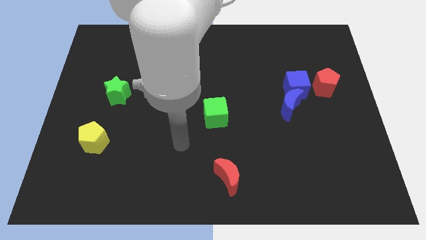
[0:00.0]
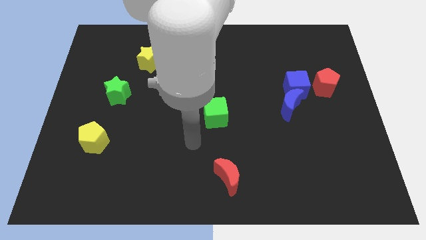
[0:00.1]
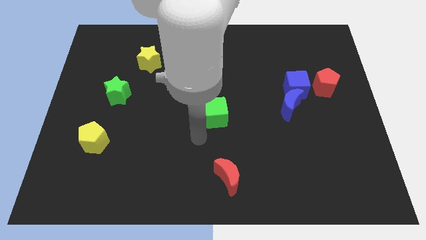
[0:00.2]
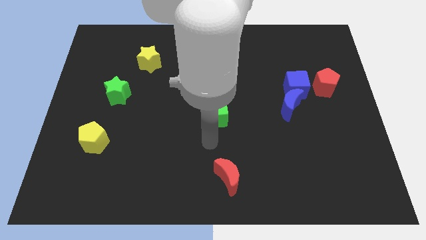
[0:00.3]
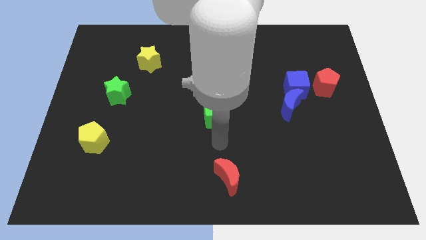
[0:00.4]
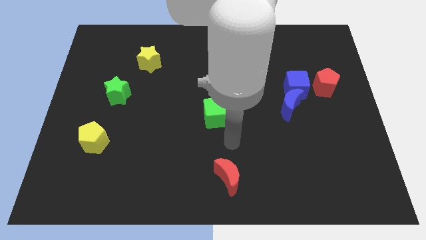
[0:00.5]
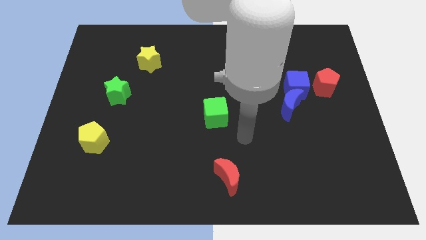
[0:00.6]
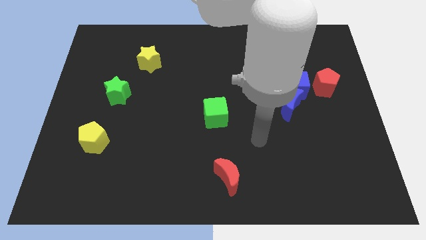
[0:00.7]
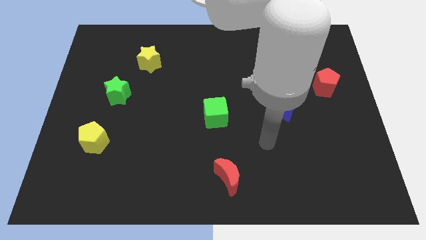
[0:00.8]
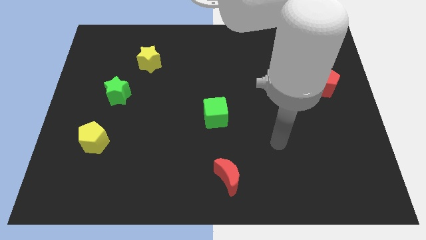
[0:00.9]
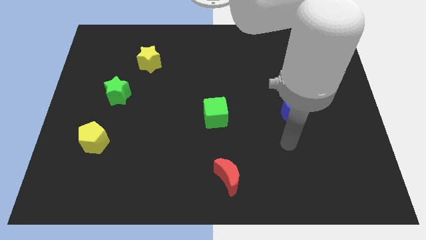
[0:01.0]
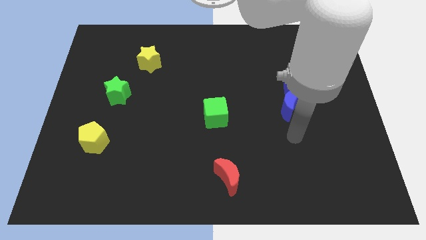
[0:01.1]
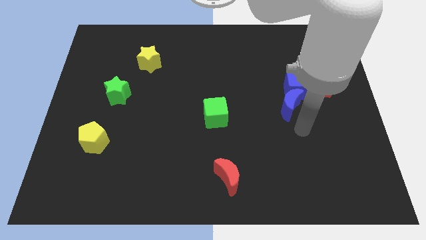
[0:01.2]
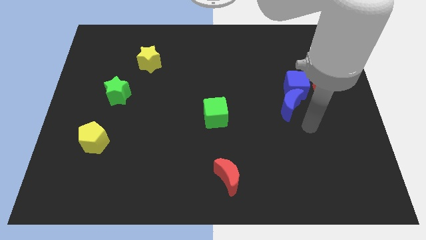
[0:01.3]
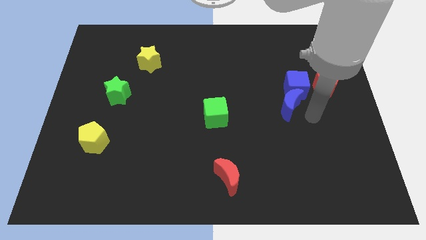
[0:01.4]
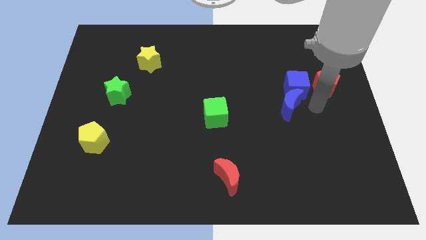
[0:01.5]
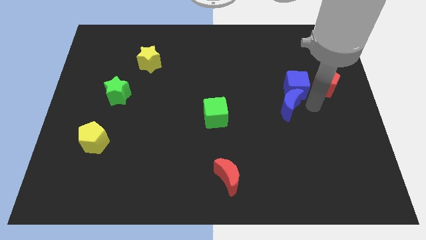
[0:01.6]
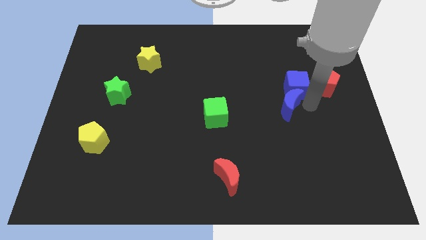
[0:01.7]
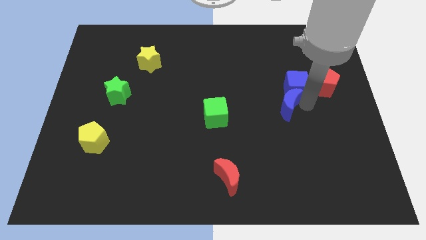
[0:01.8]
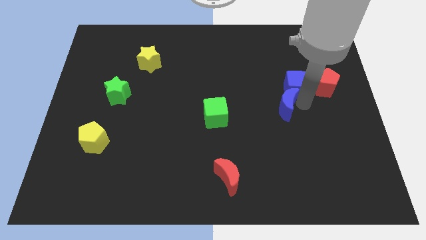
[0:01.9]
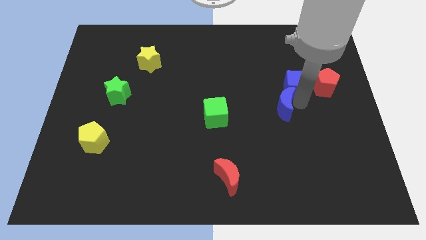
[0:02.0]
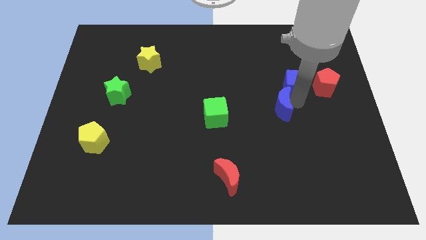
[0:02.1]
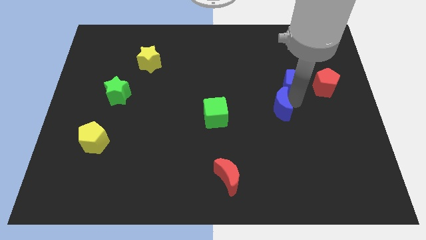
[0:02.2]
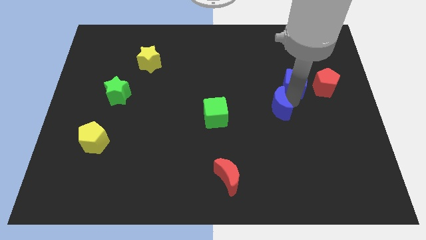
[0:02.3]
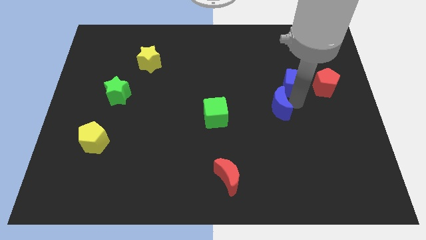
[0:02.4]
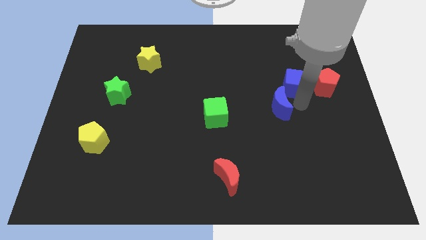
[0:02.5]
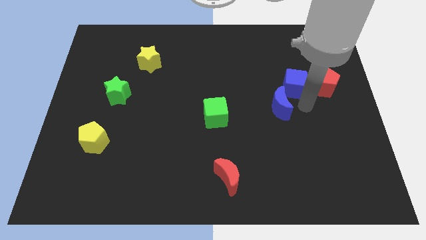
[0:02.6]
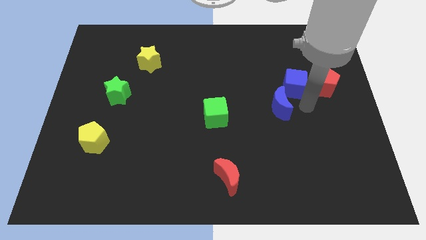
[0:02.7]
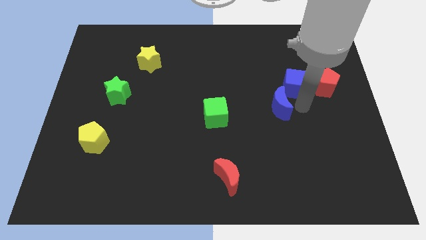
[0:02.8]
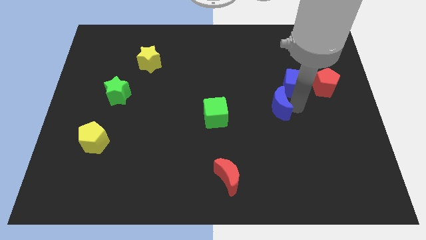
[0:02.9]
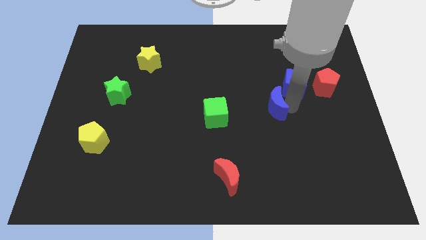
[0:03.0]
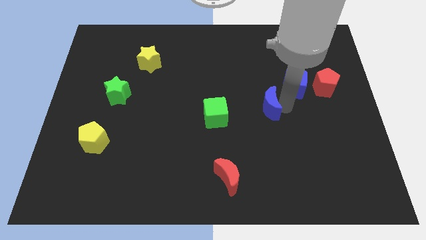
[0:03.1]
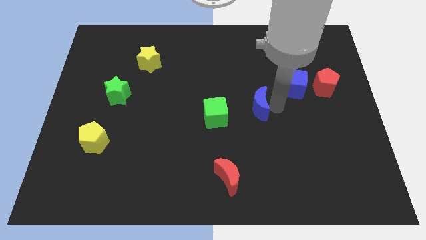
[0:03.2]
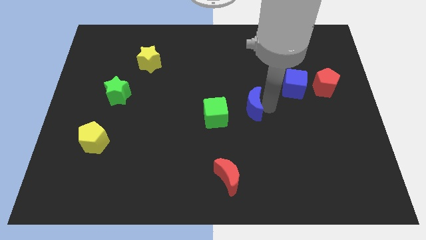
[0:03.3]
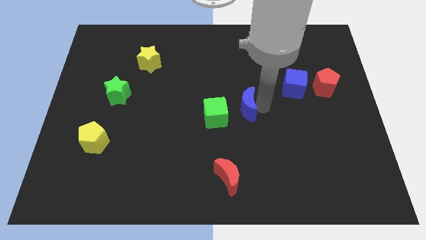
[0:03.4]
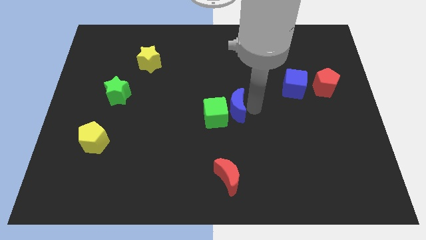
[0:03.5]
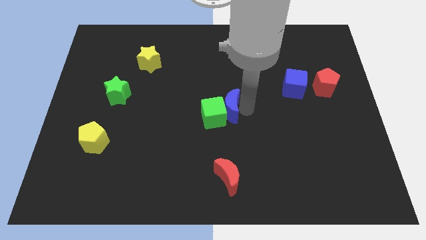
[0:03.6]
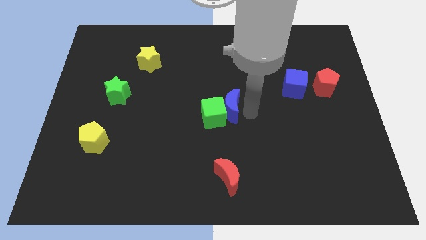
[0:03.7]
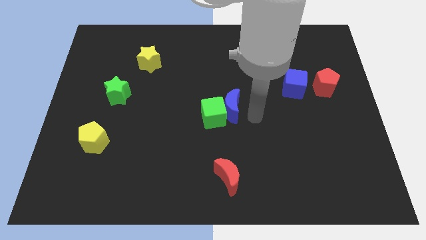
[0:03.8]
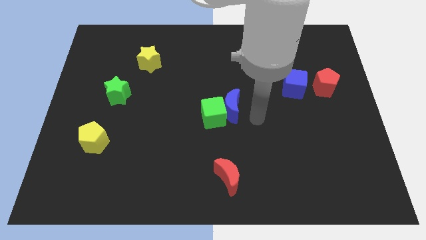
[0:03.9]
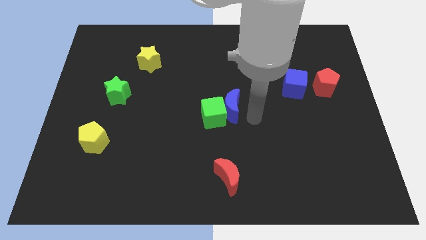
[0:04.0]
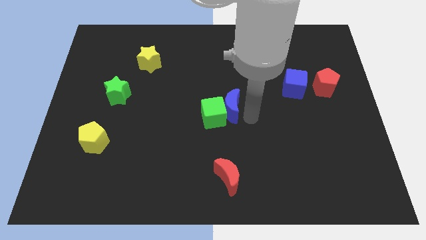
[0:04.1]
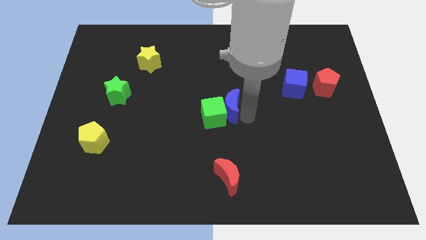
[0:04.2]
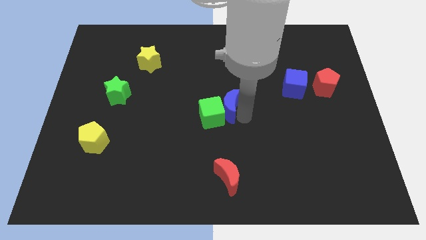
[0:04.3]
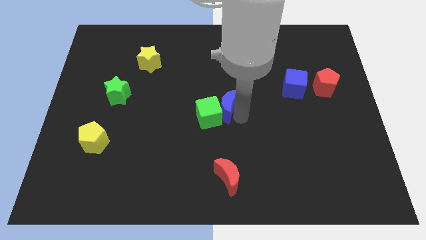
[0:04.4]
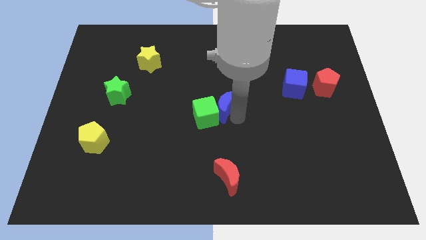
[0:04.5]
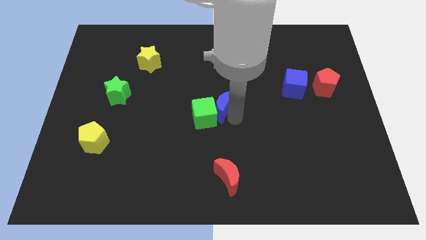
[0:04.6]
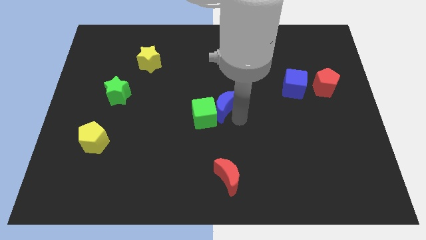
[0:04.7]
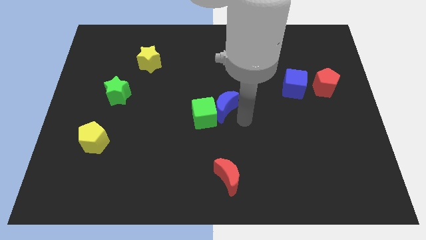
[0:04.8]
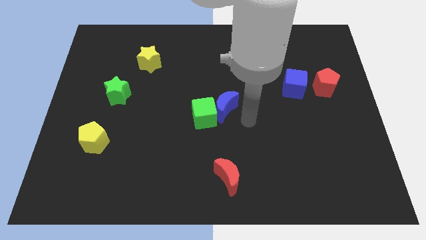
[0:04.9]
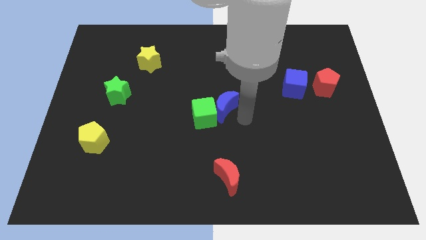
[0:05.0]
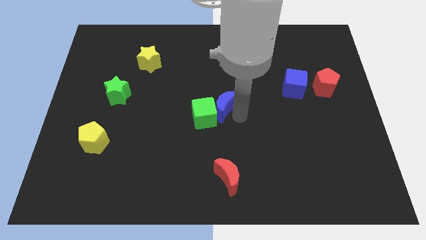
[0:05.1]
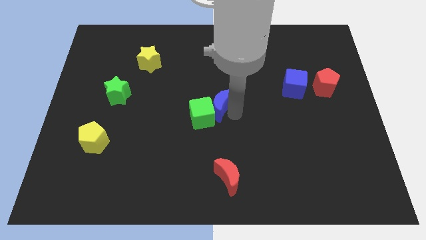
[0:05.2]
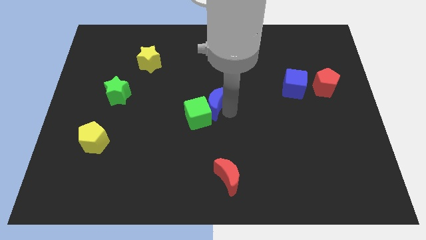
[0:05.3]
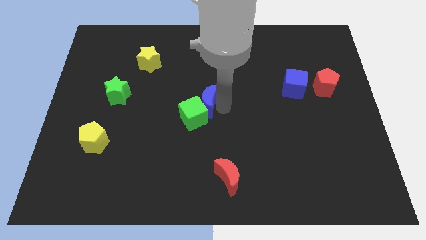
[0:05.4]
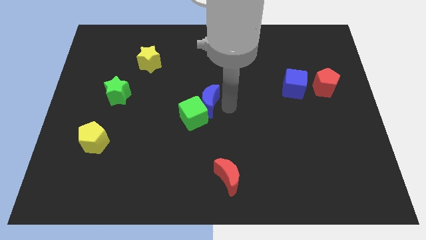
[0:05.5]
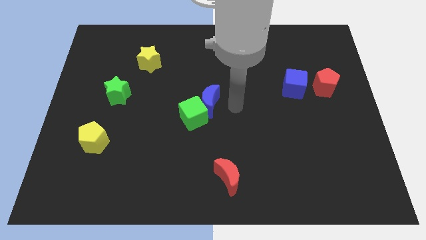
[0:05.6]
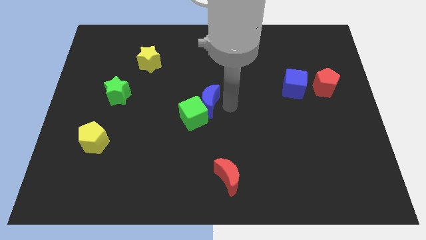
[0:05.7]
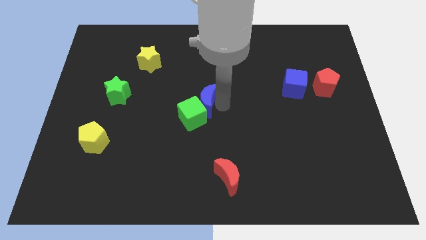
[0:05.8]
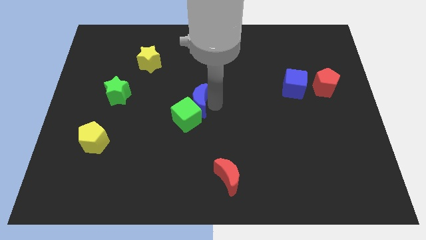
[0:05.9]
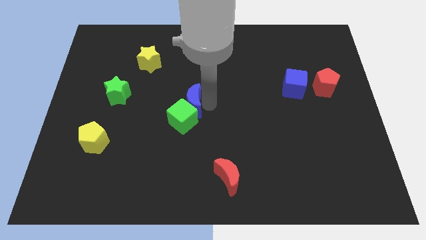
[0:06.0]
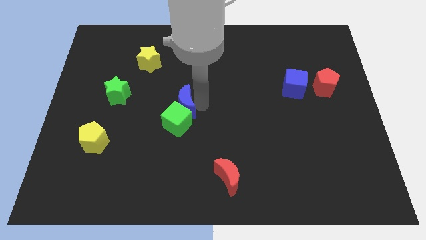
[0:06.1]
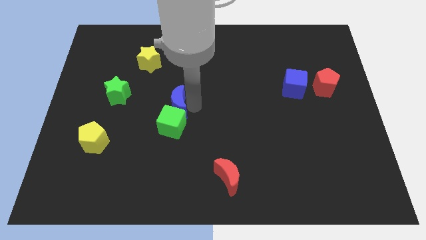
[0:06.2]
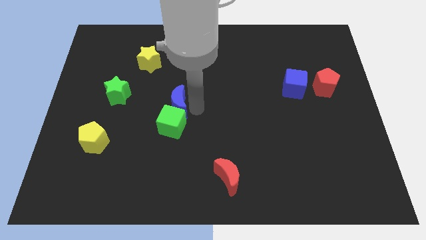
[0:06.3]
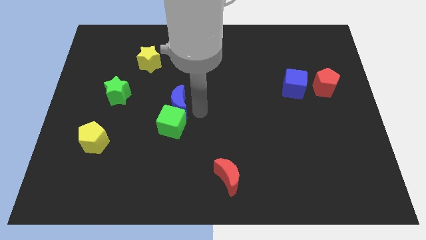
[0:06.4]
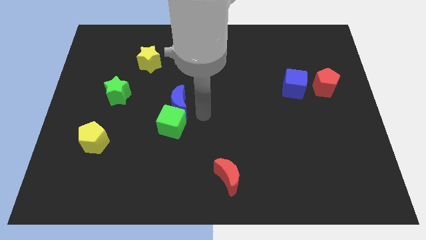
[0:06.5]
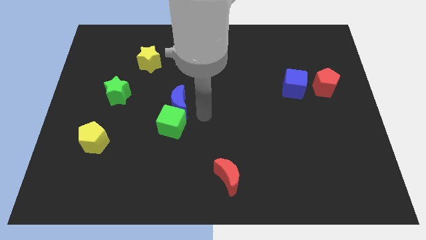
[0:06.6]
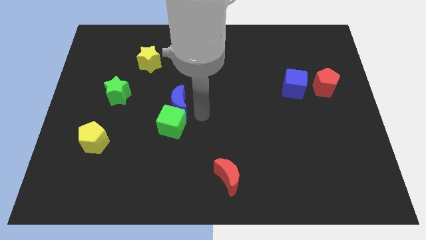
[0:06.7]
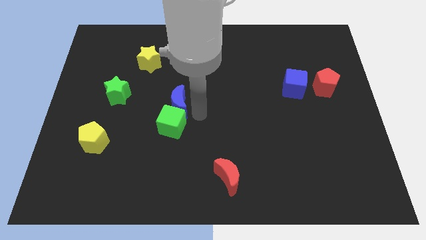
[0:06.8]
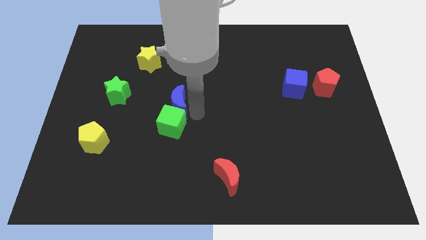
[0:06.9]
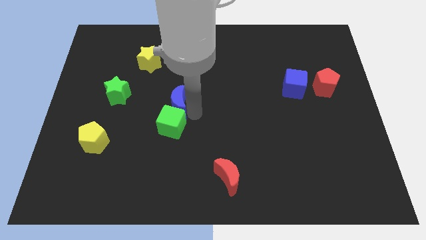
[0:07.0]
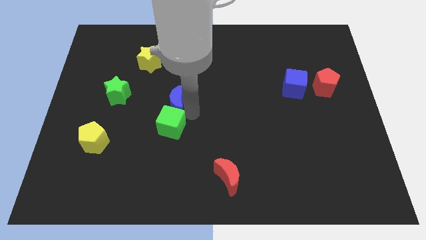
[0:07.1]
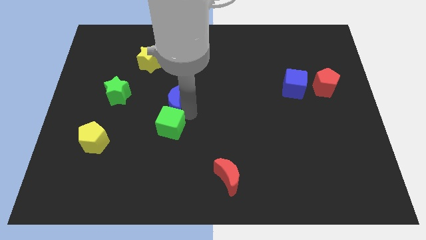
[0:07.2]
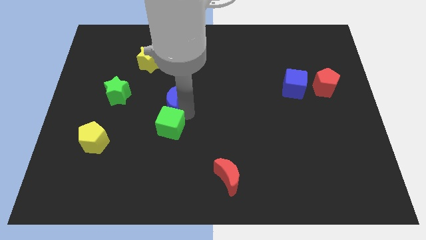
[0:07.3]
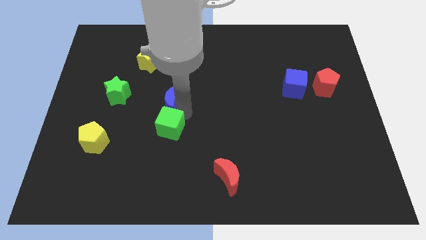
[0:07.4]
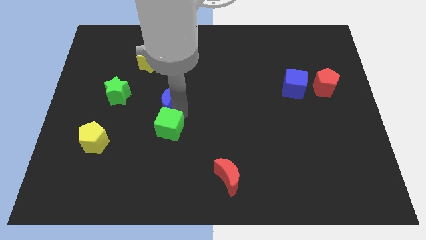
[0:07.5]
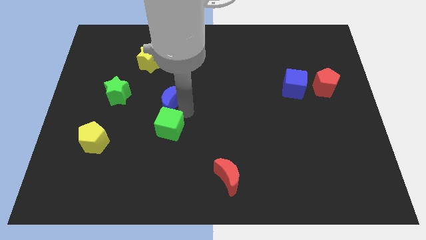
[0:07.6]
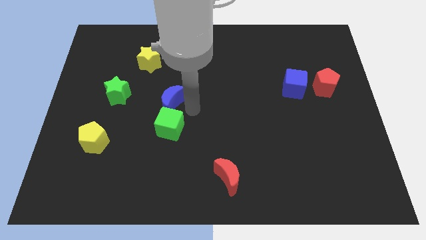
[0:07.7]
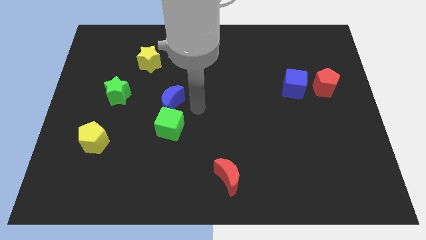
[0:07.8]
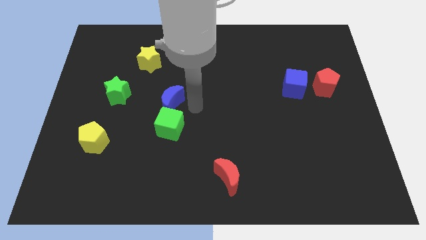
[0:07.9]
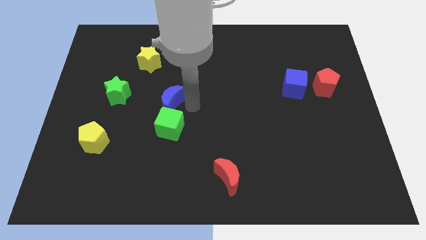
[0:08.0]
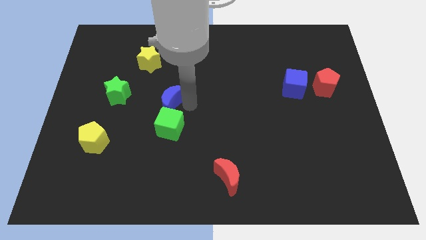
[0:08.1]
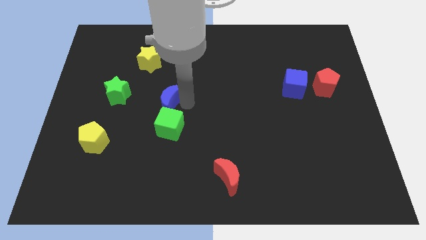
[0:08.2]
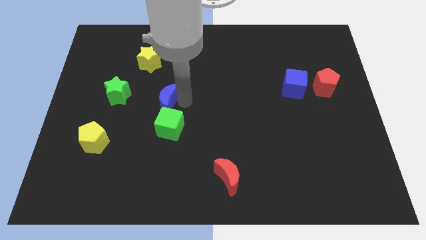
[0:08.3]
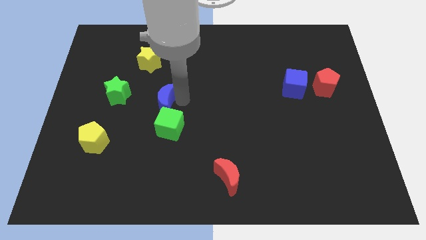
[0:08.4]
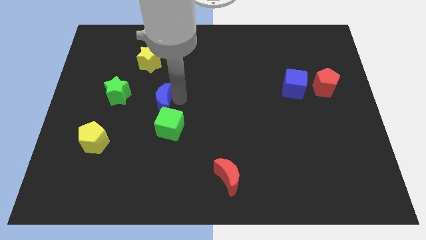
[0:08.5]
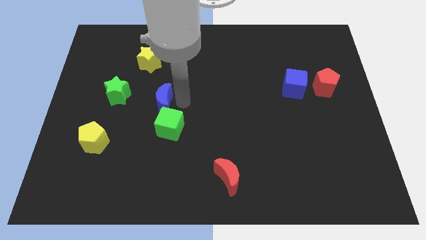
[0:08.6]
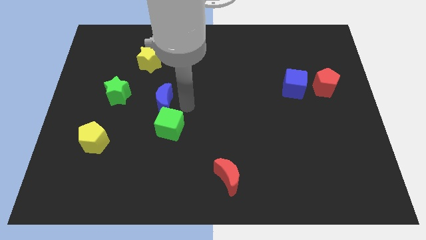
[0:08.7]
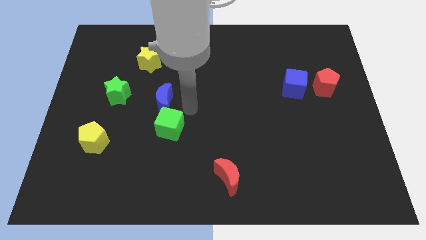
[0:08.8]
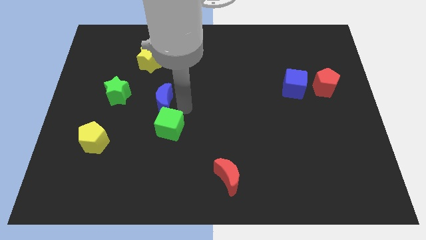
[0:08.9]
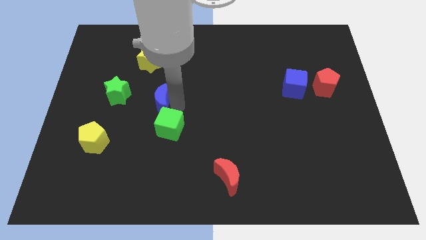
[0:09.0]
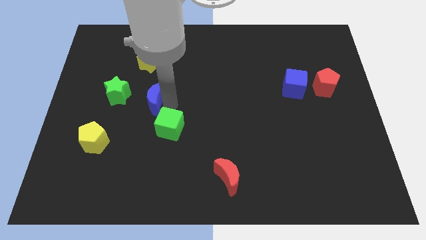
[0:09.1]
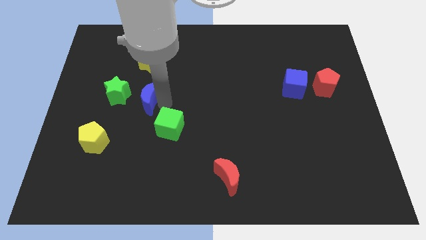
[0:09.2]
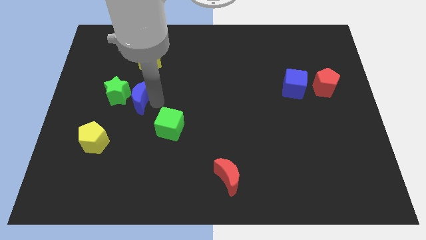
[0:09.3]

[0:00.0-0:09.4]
push the blue moon close to the green star
